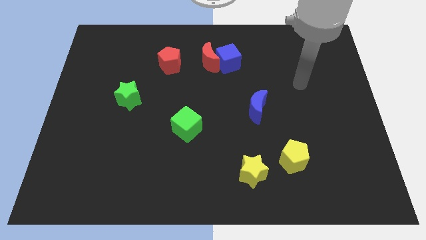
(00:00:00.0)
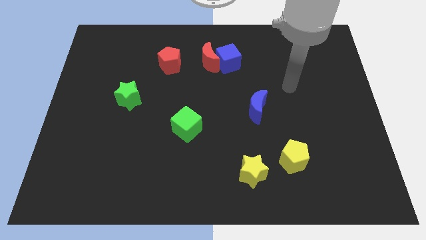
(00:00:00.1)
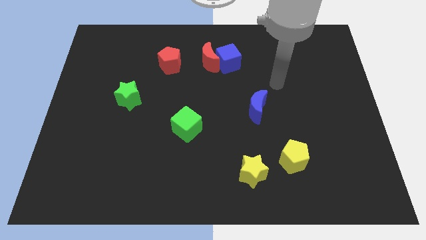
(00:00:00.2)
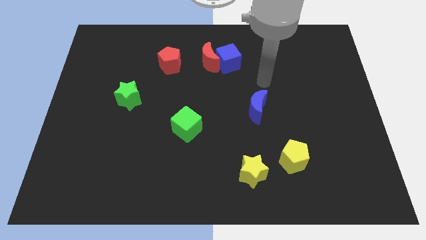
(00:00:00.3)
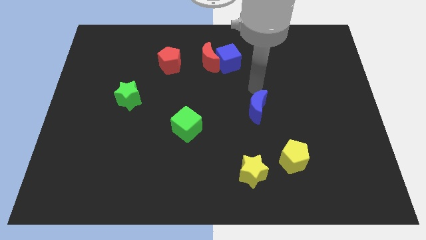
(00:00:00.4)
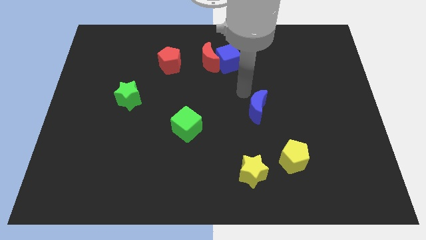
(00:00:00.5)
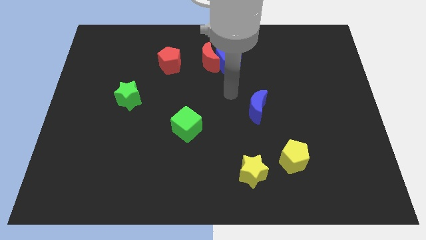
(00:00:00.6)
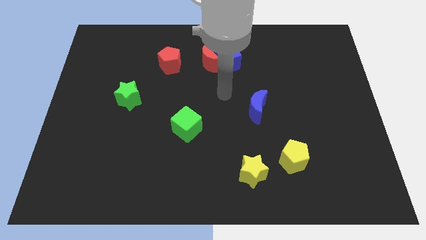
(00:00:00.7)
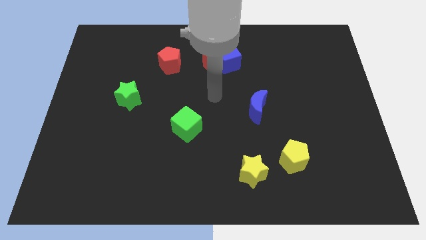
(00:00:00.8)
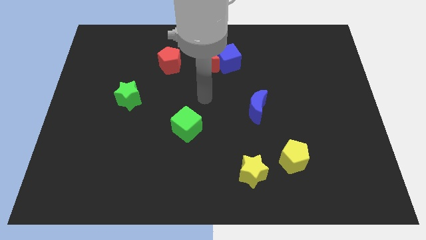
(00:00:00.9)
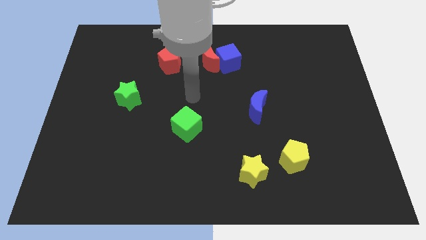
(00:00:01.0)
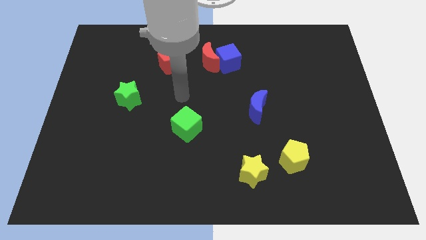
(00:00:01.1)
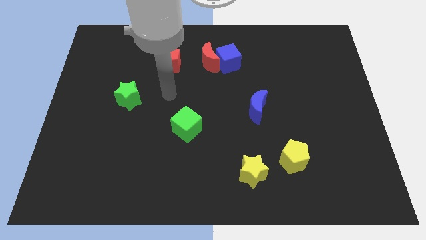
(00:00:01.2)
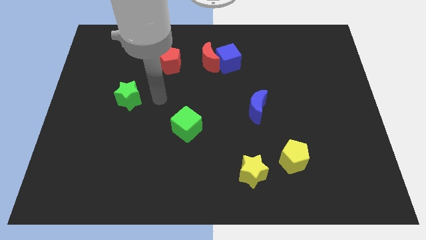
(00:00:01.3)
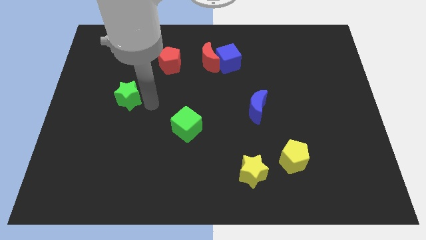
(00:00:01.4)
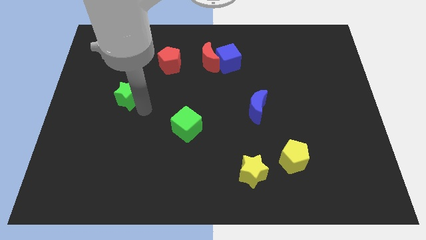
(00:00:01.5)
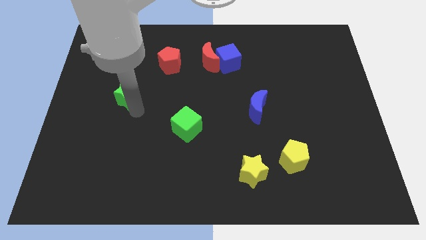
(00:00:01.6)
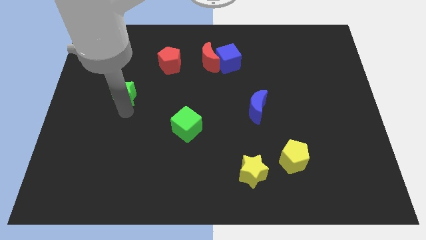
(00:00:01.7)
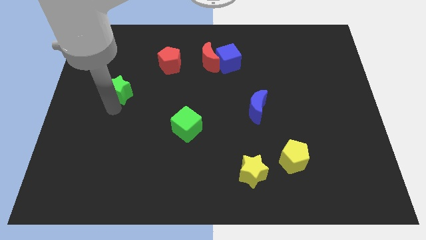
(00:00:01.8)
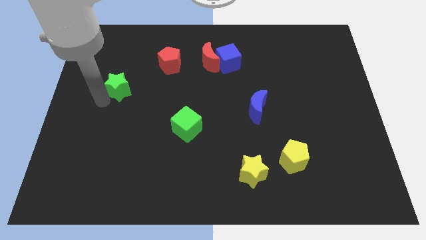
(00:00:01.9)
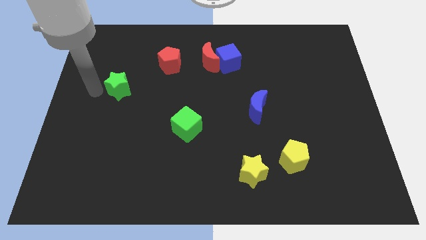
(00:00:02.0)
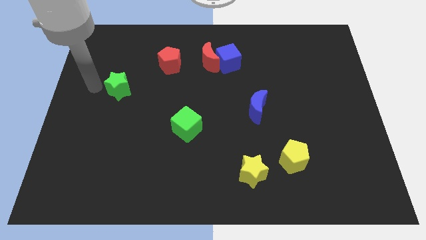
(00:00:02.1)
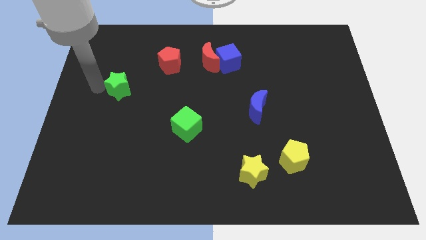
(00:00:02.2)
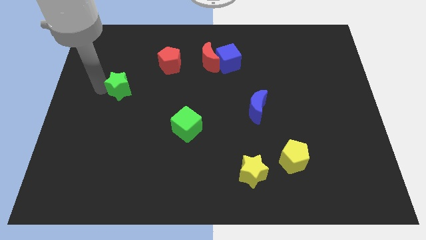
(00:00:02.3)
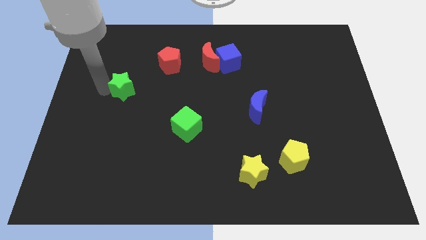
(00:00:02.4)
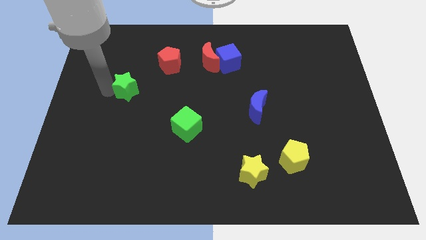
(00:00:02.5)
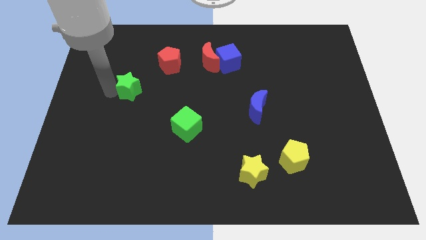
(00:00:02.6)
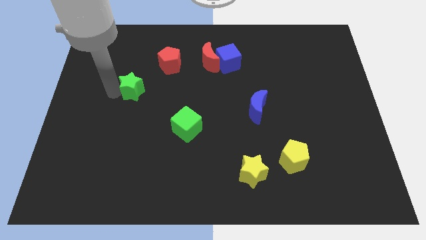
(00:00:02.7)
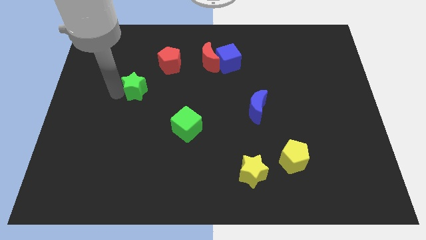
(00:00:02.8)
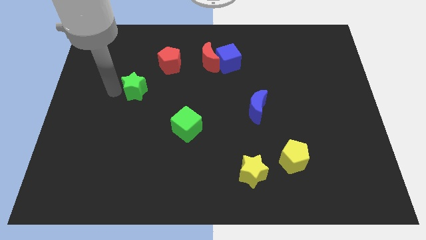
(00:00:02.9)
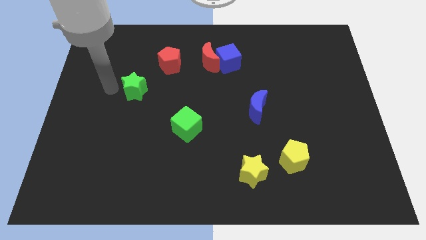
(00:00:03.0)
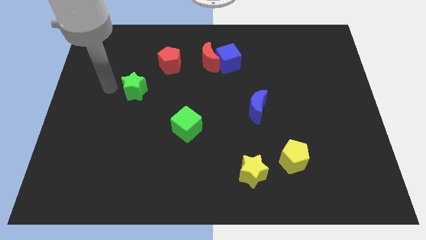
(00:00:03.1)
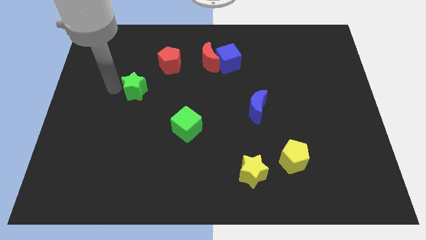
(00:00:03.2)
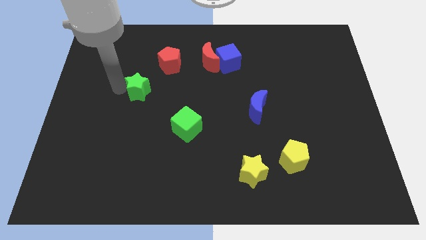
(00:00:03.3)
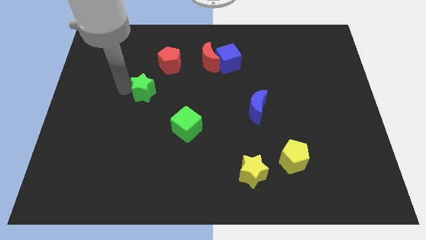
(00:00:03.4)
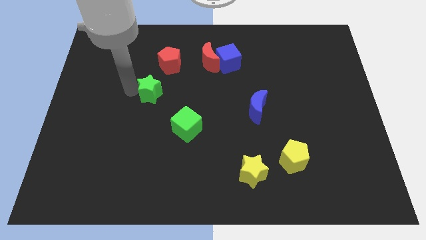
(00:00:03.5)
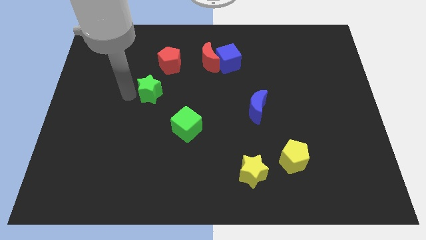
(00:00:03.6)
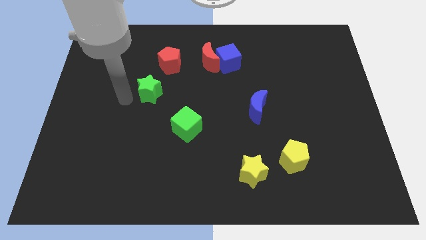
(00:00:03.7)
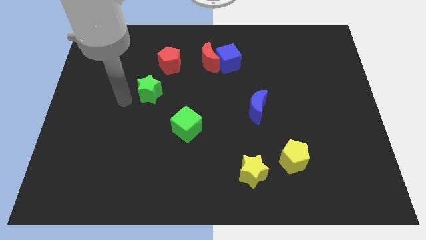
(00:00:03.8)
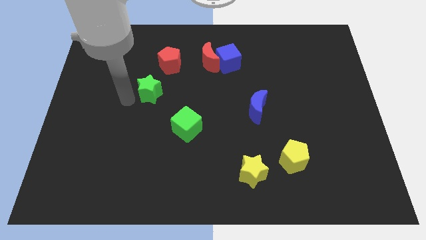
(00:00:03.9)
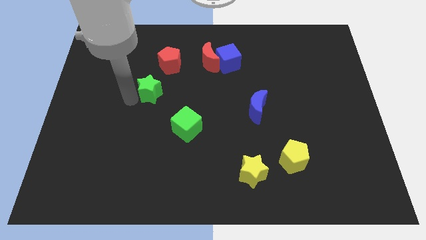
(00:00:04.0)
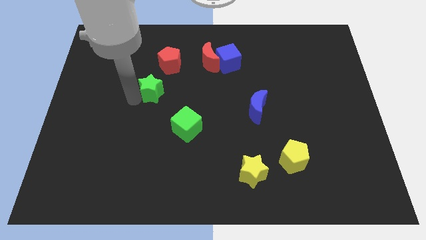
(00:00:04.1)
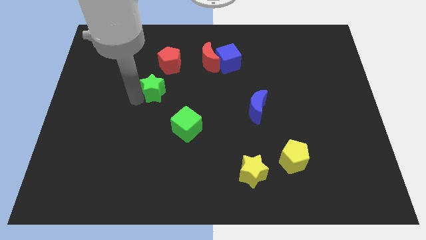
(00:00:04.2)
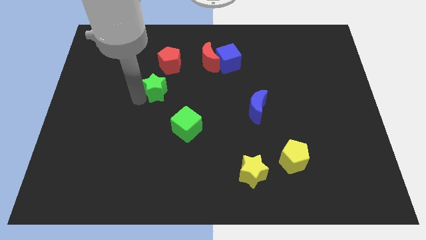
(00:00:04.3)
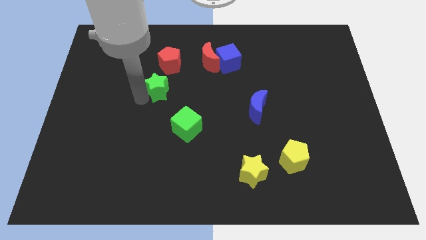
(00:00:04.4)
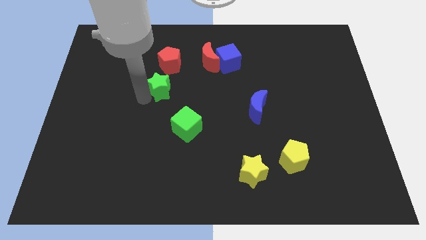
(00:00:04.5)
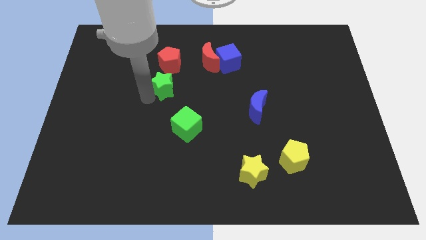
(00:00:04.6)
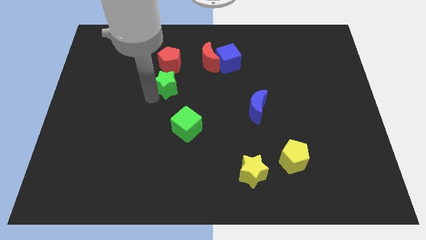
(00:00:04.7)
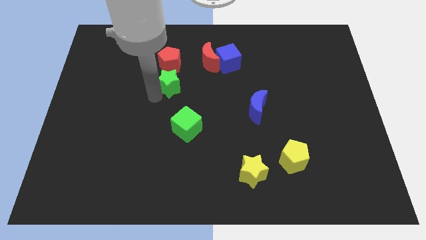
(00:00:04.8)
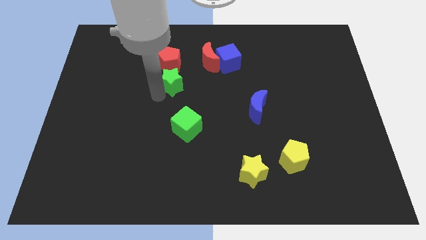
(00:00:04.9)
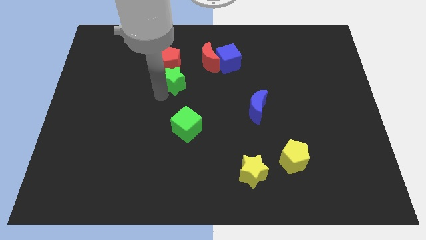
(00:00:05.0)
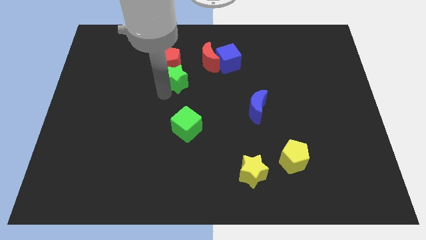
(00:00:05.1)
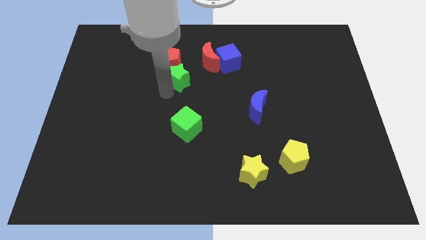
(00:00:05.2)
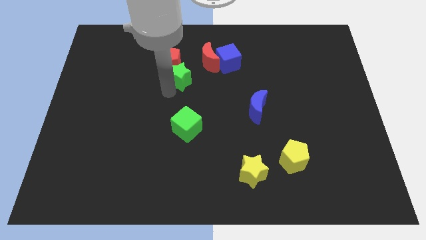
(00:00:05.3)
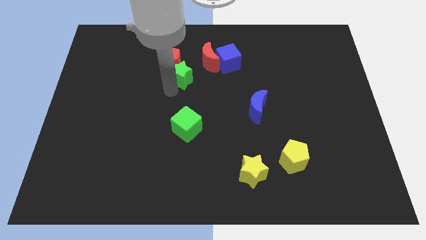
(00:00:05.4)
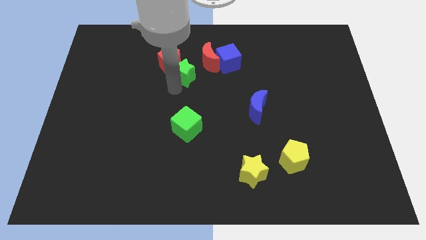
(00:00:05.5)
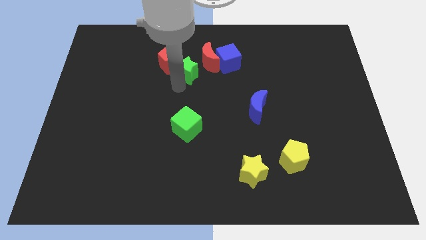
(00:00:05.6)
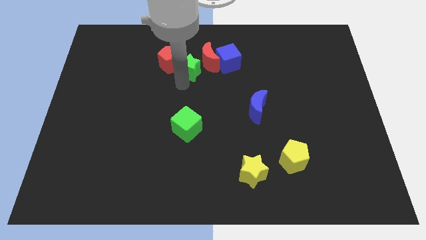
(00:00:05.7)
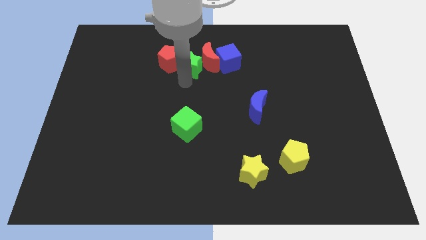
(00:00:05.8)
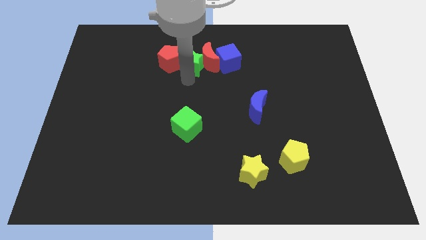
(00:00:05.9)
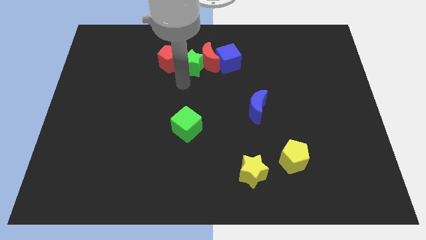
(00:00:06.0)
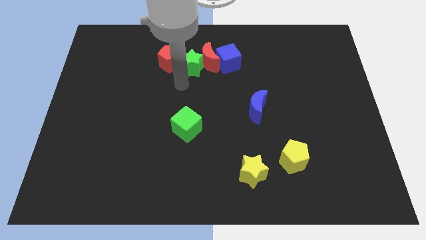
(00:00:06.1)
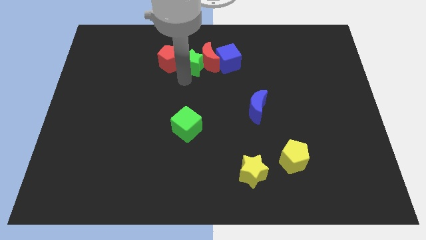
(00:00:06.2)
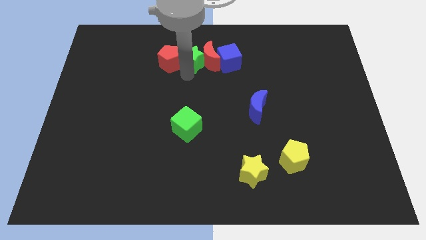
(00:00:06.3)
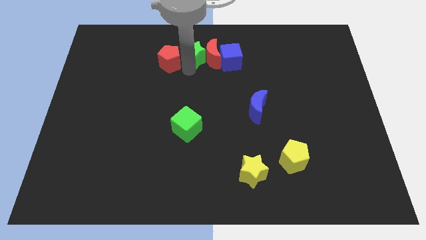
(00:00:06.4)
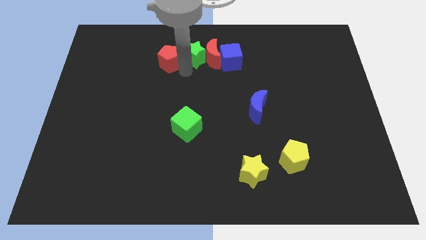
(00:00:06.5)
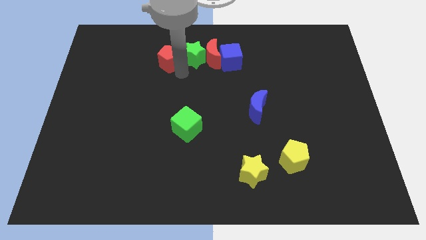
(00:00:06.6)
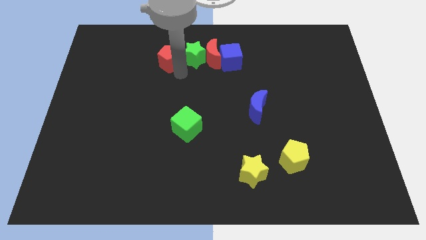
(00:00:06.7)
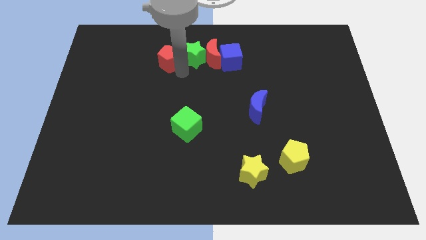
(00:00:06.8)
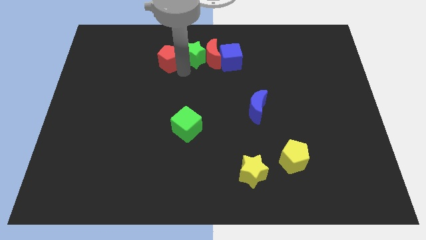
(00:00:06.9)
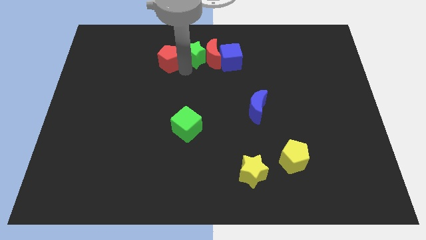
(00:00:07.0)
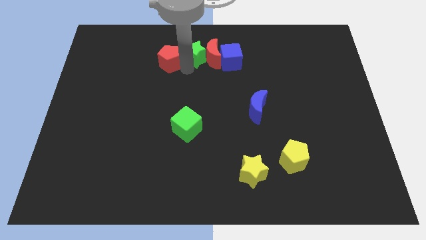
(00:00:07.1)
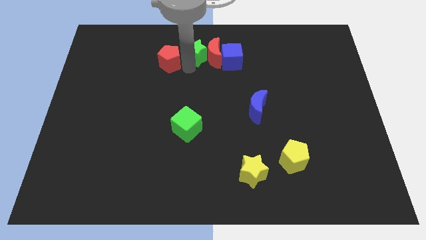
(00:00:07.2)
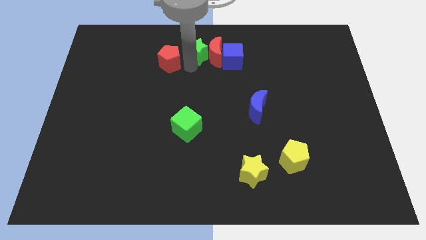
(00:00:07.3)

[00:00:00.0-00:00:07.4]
move the green star to the towards your base

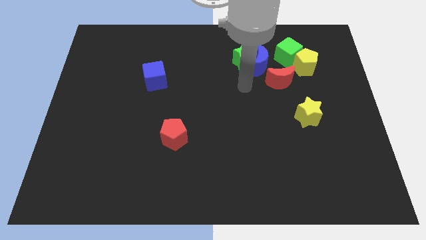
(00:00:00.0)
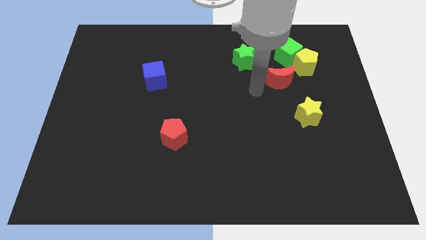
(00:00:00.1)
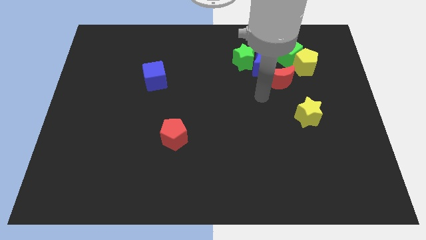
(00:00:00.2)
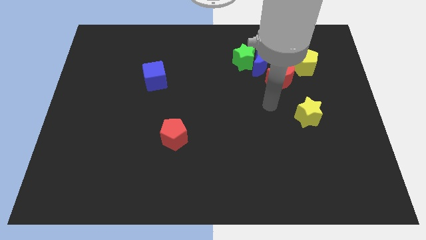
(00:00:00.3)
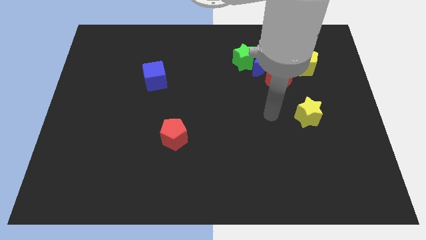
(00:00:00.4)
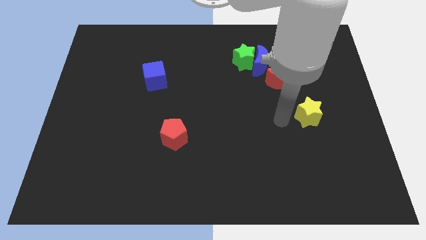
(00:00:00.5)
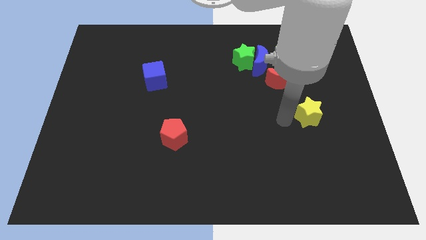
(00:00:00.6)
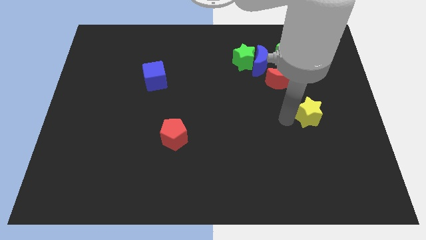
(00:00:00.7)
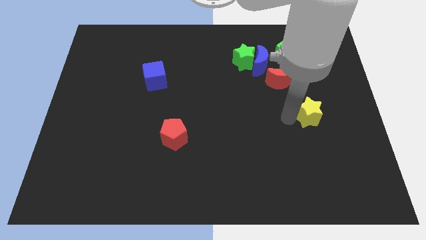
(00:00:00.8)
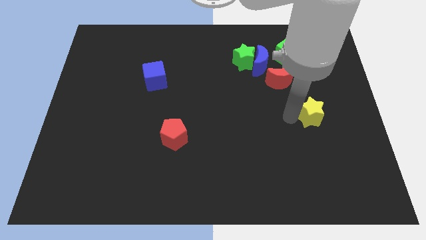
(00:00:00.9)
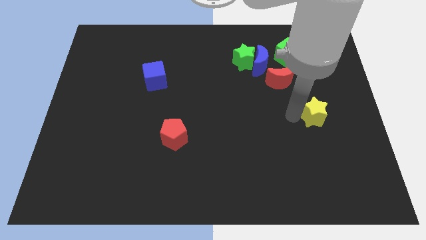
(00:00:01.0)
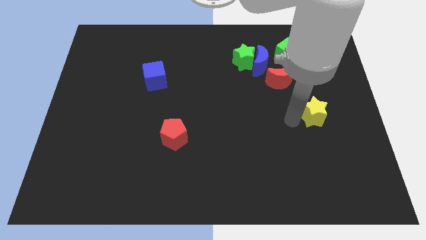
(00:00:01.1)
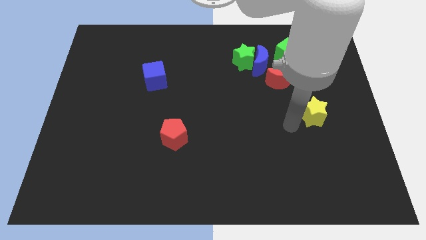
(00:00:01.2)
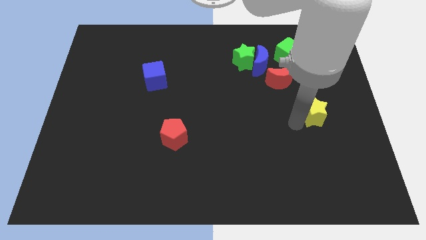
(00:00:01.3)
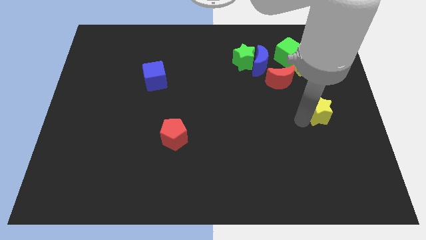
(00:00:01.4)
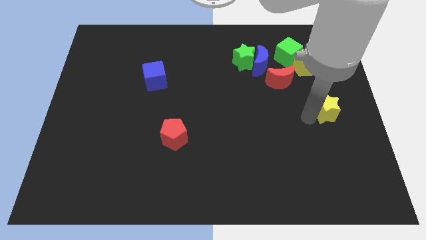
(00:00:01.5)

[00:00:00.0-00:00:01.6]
move the yellow star to the right side
